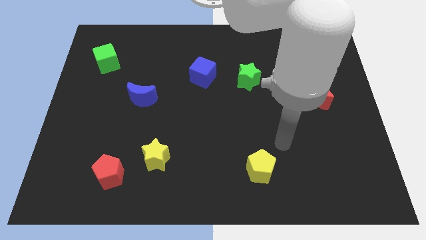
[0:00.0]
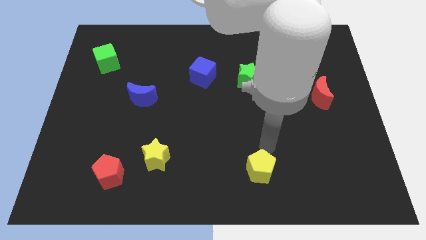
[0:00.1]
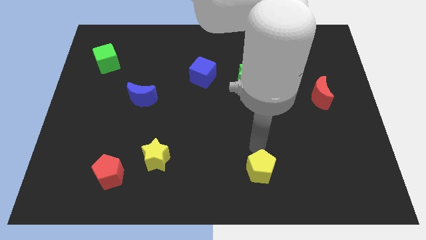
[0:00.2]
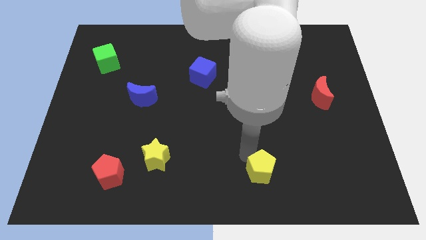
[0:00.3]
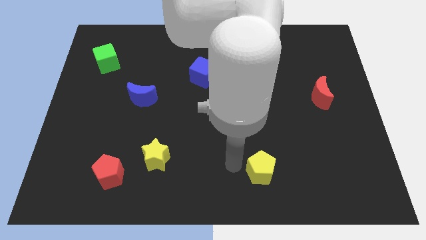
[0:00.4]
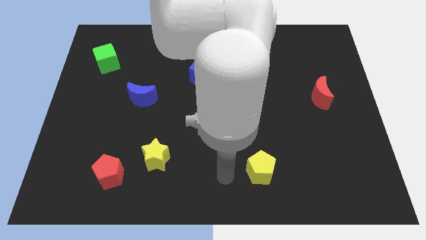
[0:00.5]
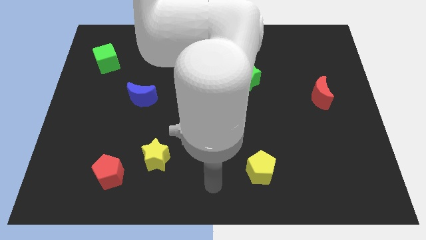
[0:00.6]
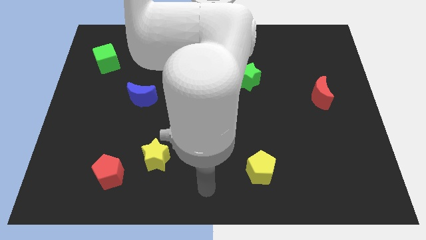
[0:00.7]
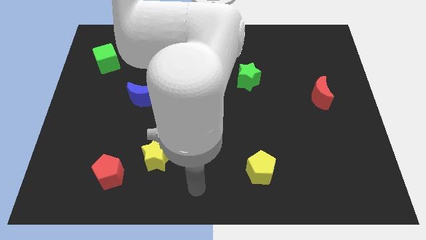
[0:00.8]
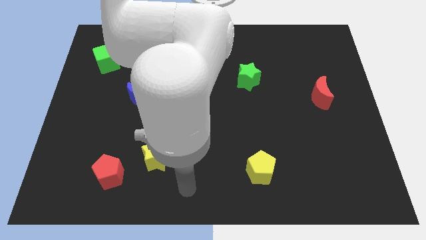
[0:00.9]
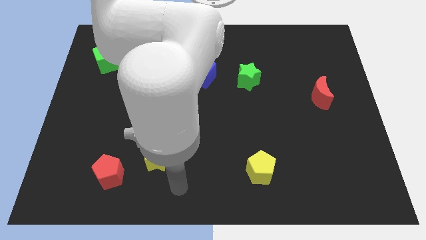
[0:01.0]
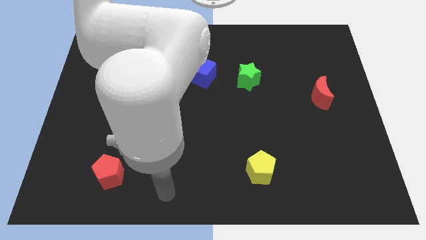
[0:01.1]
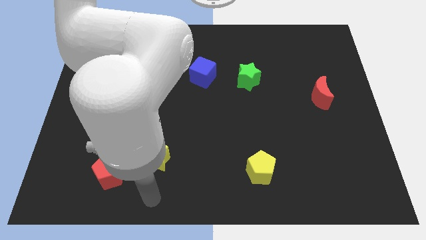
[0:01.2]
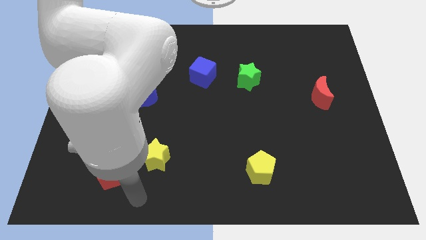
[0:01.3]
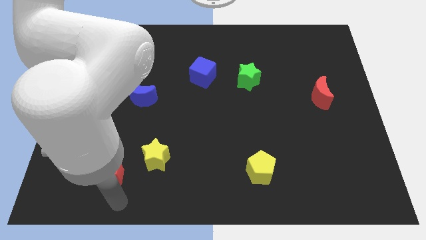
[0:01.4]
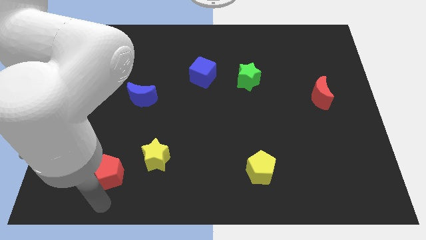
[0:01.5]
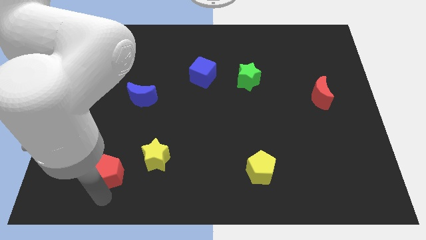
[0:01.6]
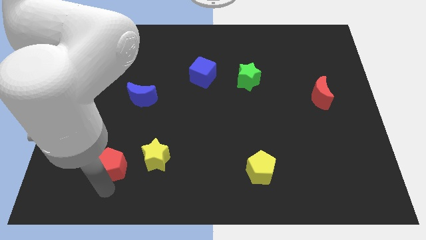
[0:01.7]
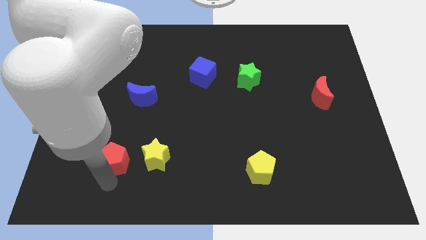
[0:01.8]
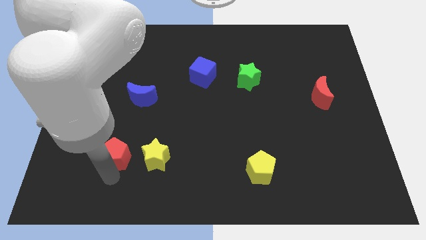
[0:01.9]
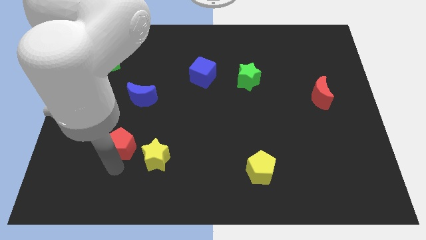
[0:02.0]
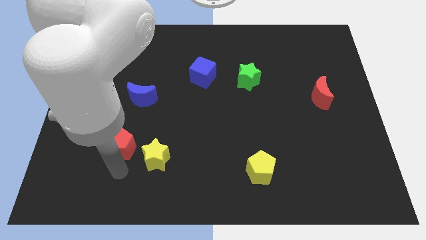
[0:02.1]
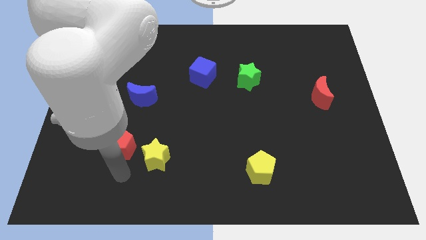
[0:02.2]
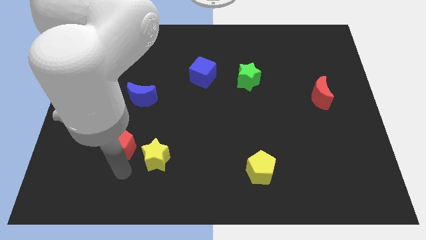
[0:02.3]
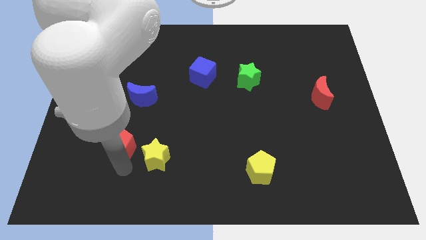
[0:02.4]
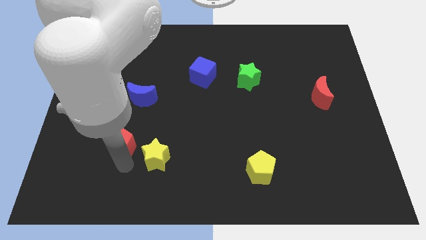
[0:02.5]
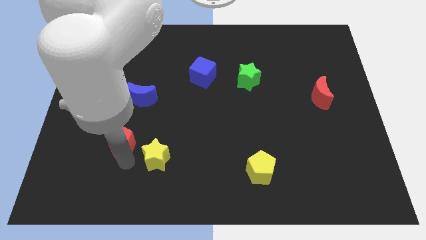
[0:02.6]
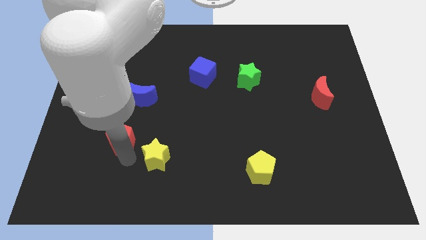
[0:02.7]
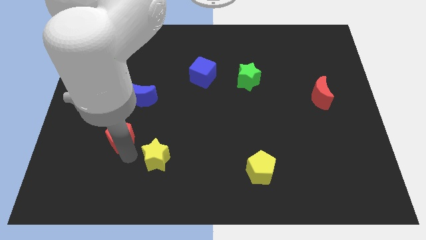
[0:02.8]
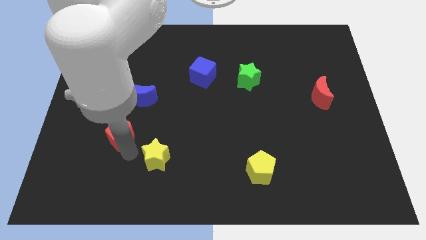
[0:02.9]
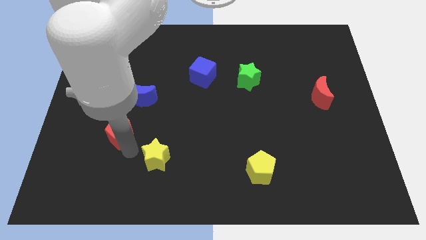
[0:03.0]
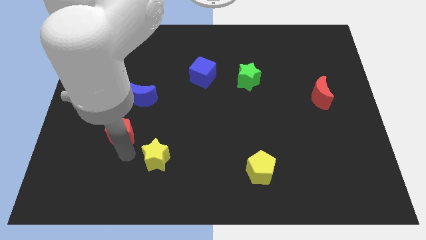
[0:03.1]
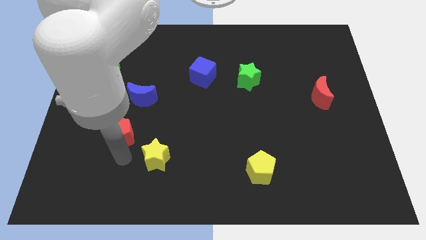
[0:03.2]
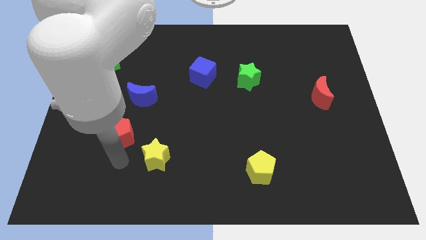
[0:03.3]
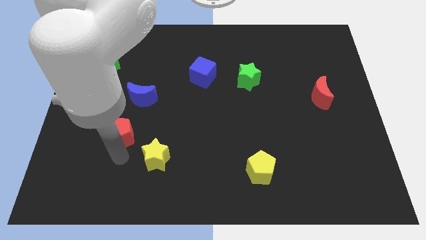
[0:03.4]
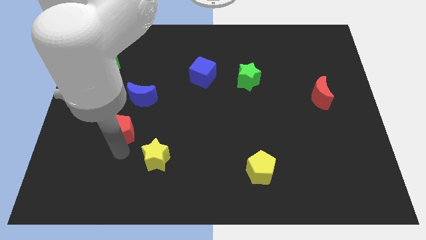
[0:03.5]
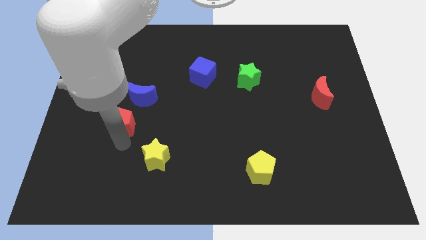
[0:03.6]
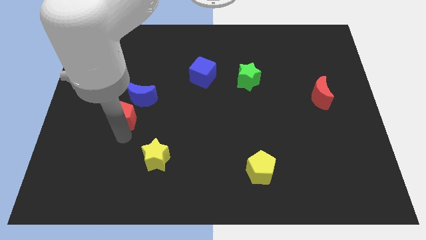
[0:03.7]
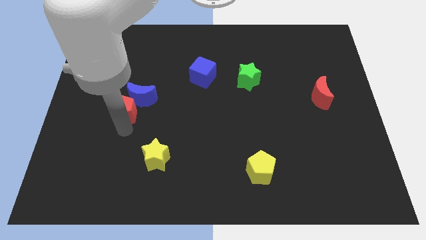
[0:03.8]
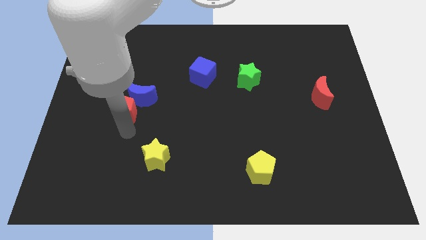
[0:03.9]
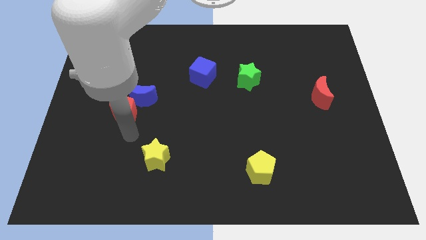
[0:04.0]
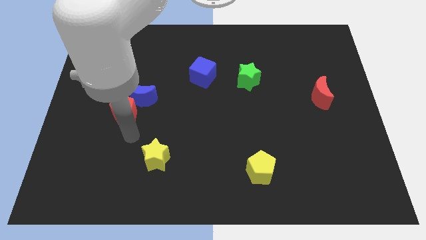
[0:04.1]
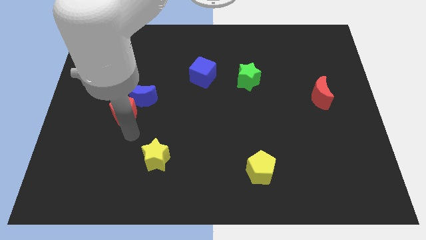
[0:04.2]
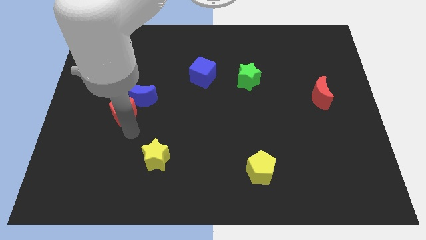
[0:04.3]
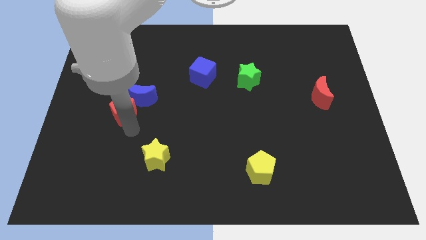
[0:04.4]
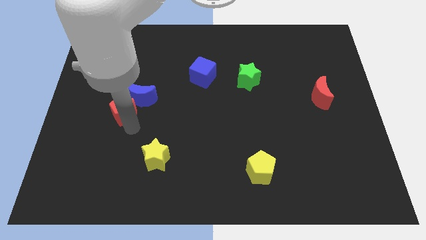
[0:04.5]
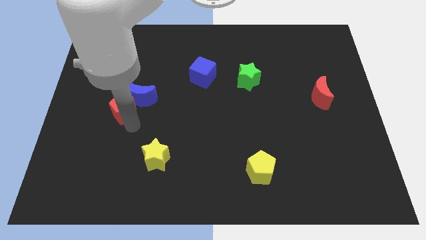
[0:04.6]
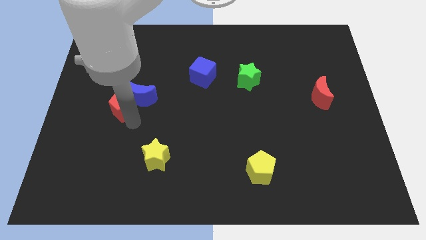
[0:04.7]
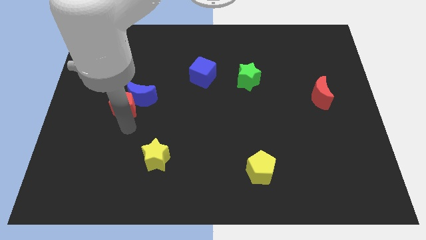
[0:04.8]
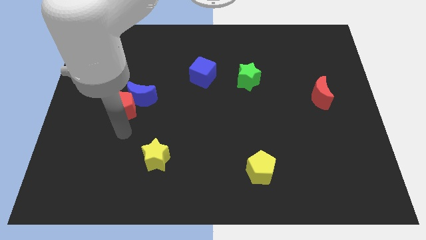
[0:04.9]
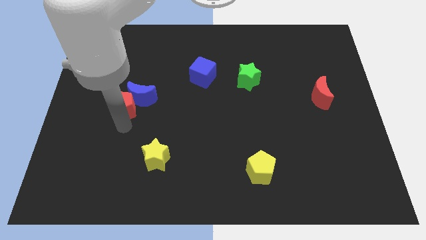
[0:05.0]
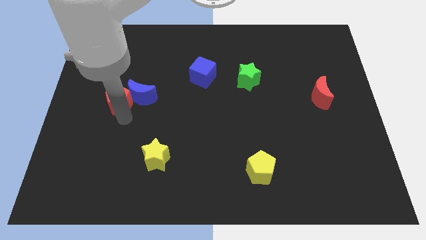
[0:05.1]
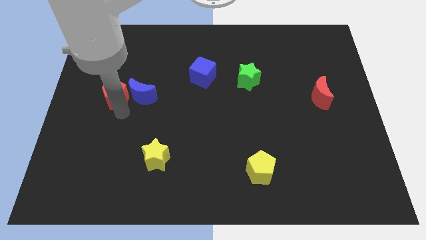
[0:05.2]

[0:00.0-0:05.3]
push the red pentagon upwards

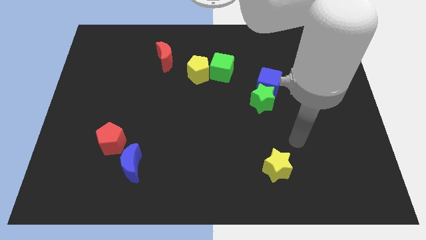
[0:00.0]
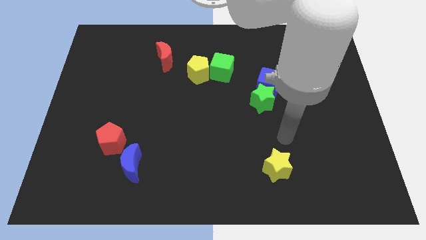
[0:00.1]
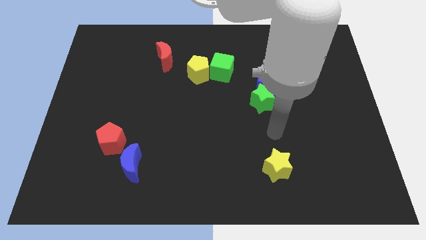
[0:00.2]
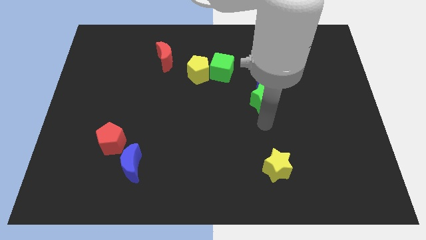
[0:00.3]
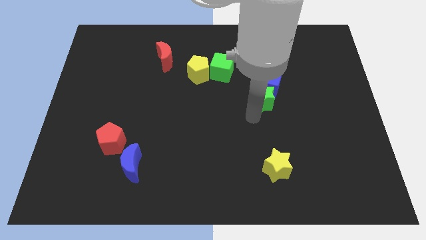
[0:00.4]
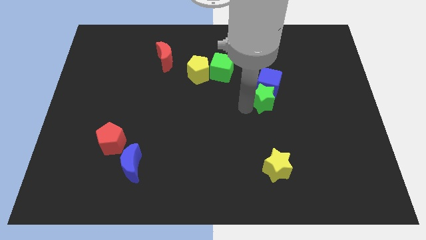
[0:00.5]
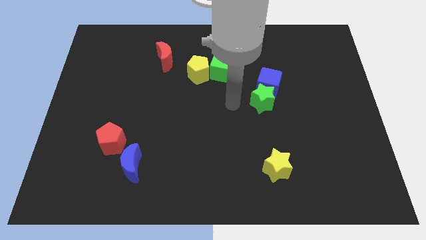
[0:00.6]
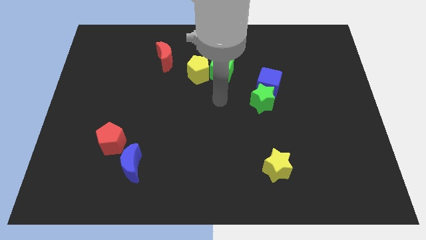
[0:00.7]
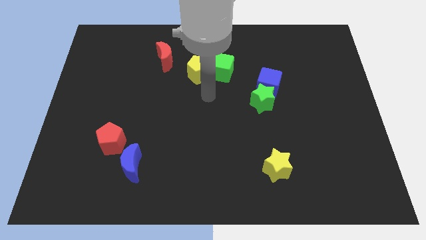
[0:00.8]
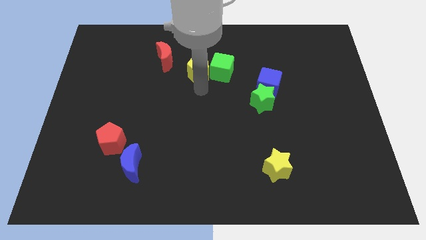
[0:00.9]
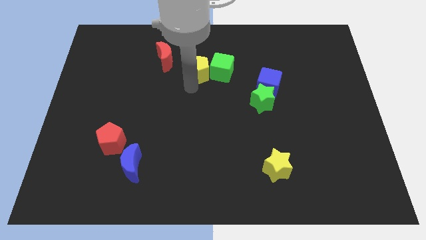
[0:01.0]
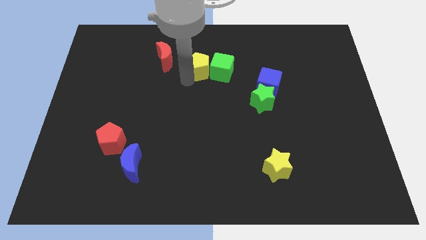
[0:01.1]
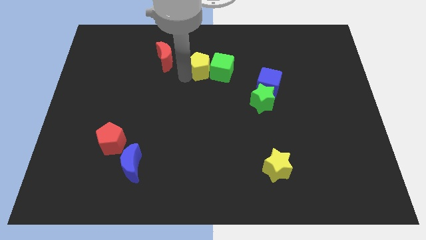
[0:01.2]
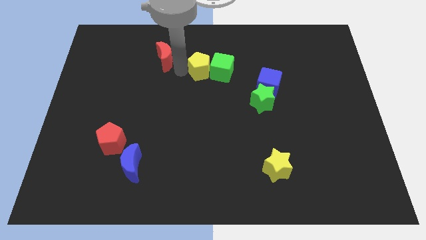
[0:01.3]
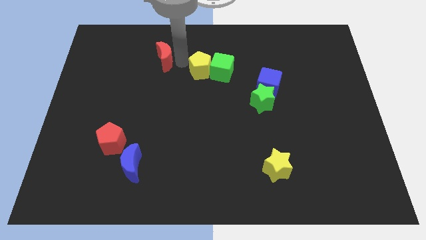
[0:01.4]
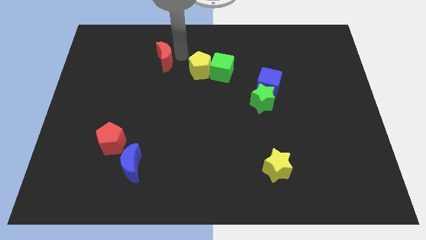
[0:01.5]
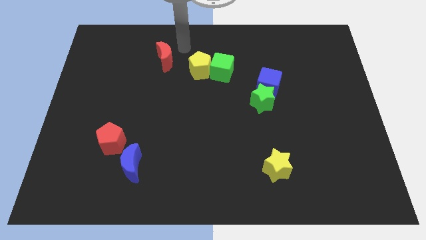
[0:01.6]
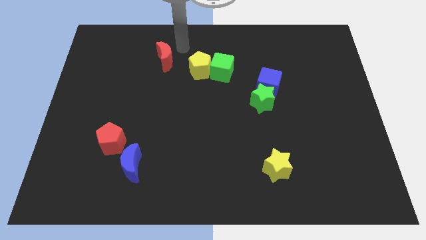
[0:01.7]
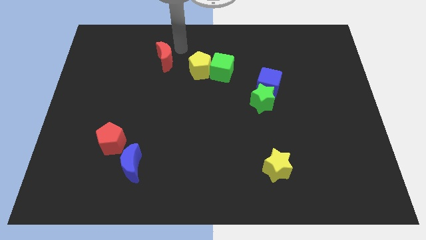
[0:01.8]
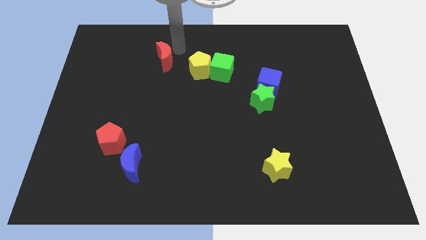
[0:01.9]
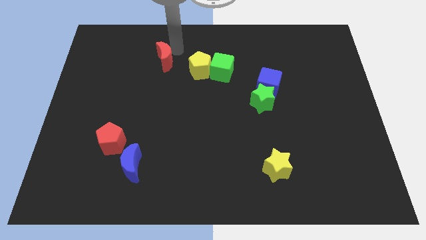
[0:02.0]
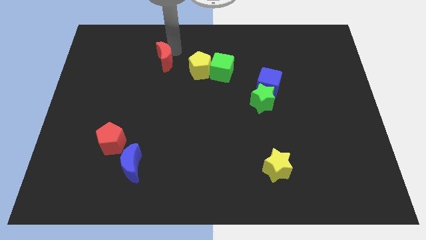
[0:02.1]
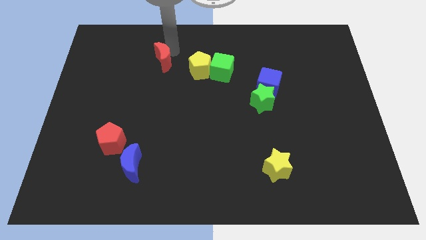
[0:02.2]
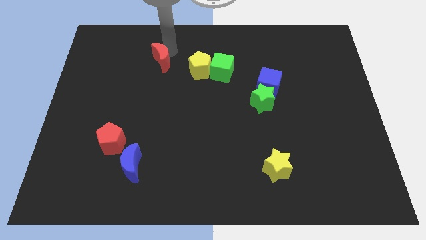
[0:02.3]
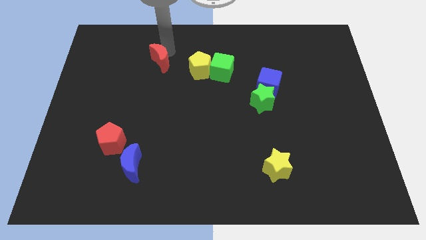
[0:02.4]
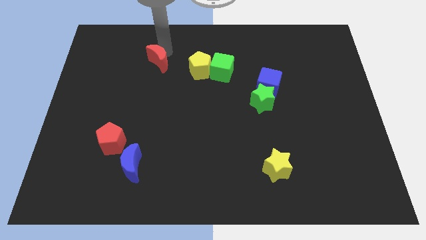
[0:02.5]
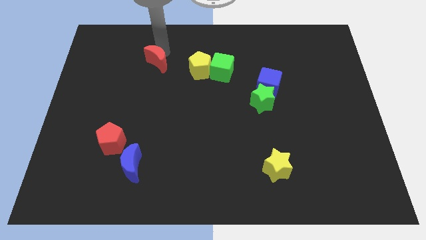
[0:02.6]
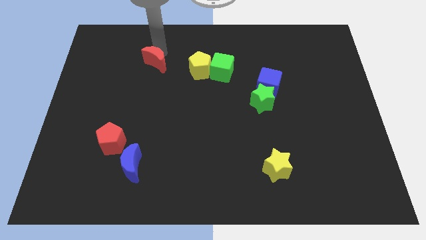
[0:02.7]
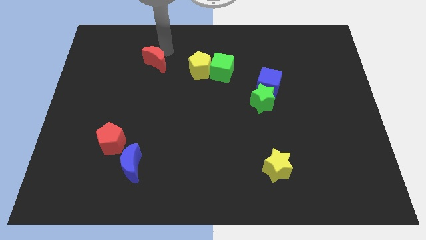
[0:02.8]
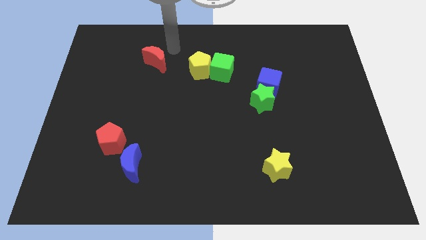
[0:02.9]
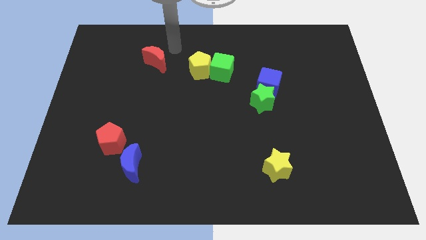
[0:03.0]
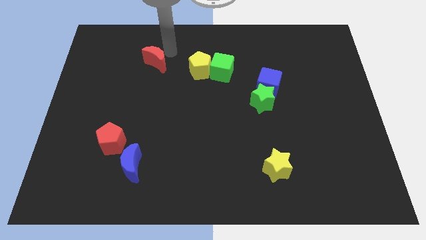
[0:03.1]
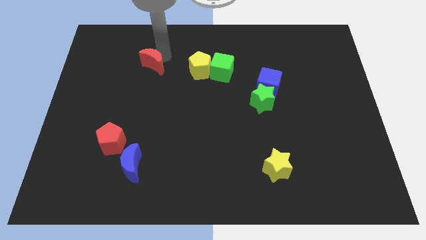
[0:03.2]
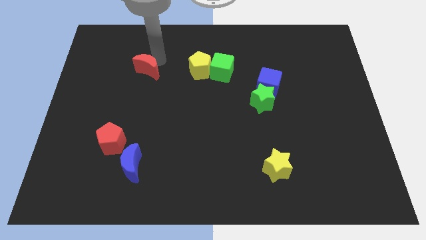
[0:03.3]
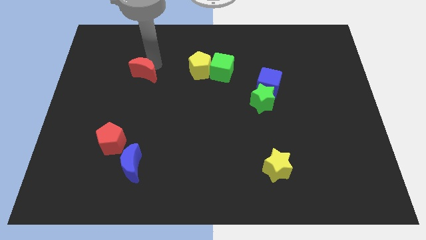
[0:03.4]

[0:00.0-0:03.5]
slightly slide the red moon diagonally down and to the left
